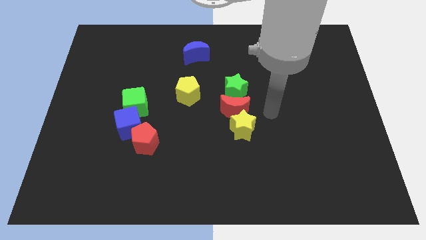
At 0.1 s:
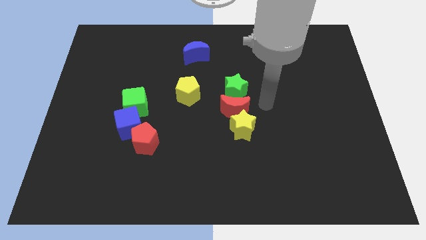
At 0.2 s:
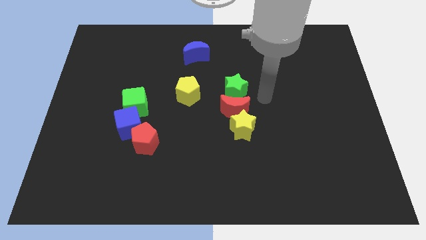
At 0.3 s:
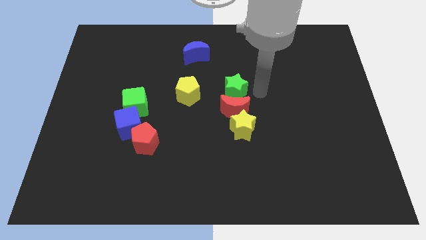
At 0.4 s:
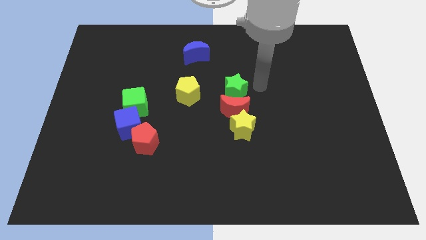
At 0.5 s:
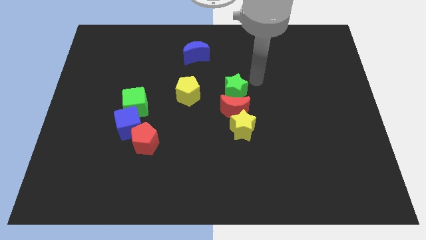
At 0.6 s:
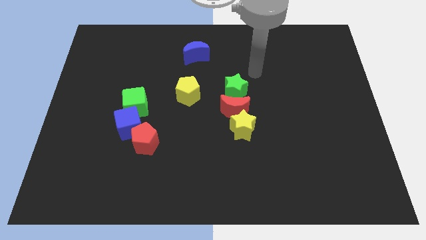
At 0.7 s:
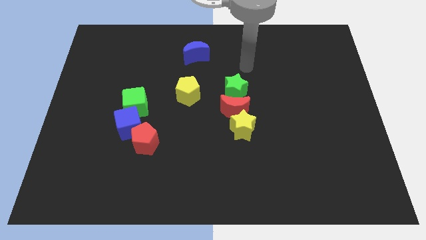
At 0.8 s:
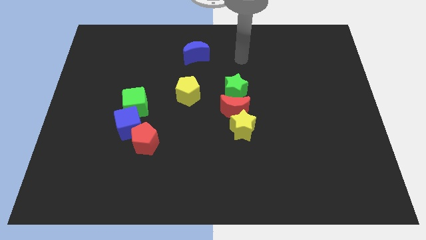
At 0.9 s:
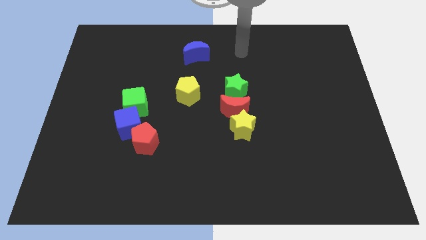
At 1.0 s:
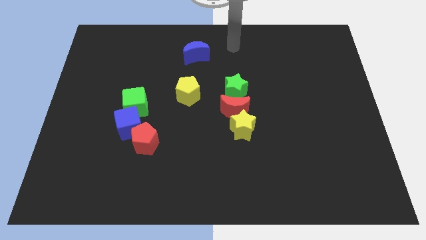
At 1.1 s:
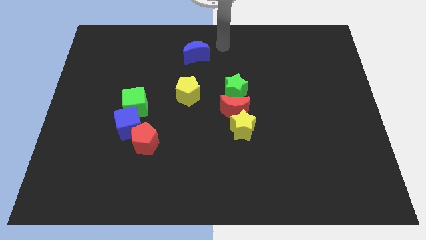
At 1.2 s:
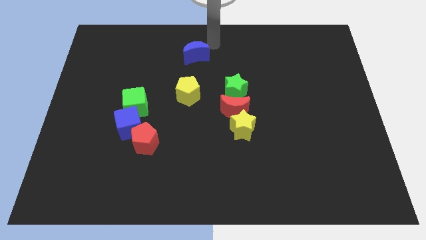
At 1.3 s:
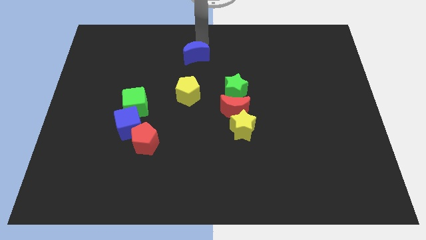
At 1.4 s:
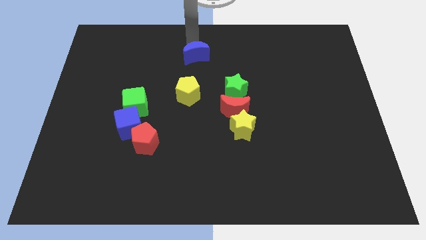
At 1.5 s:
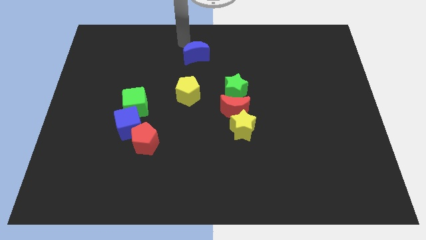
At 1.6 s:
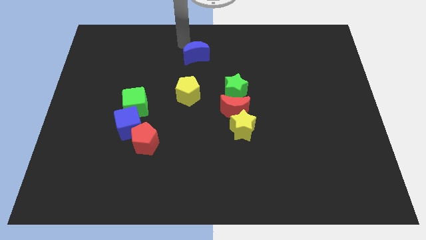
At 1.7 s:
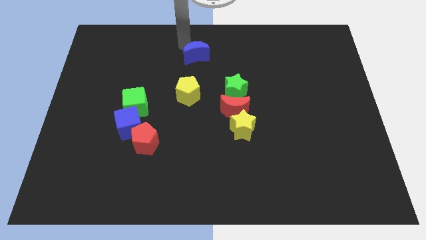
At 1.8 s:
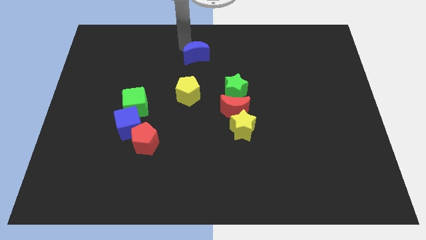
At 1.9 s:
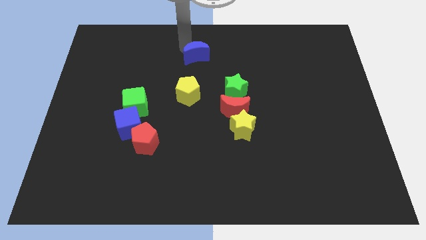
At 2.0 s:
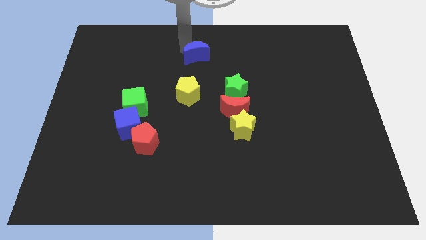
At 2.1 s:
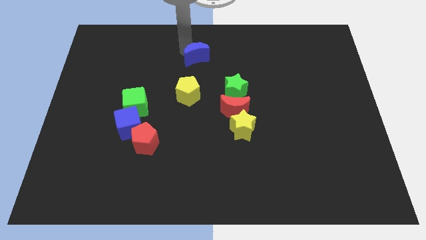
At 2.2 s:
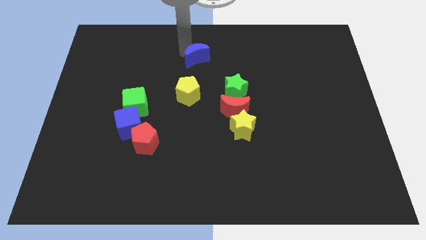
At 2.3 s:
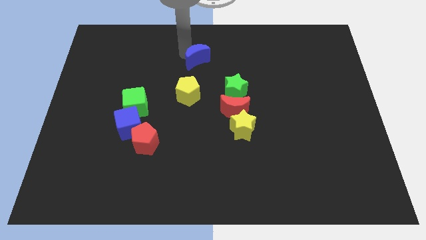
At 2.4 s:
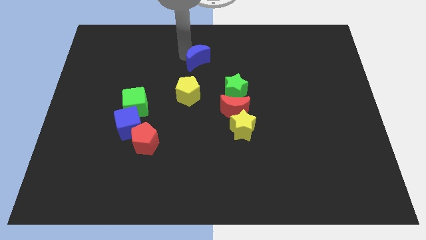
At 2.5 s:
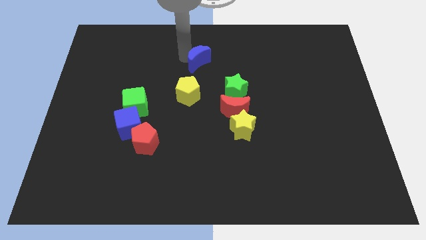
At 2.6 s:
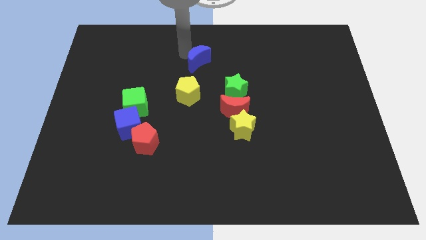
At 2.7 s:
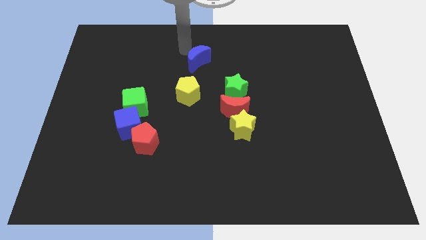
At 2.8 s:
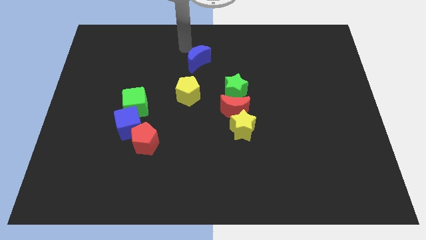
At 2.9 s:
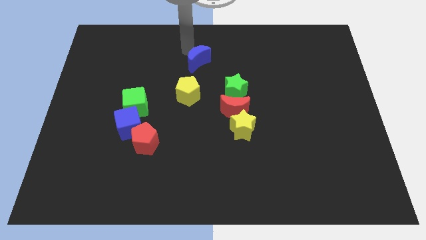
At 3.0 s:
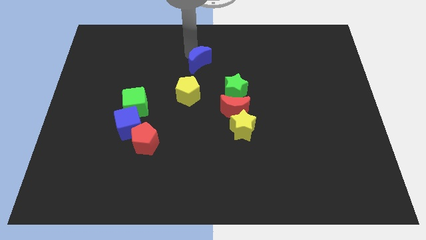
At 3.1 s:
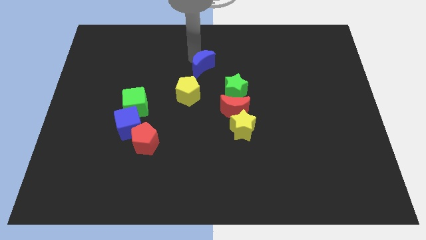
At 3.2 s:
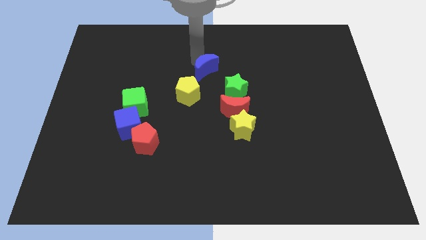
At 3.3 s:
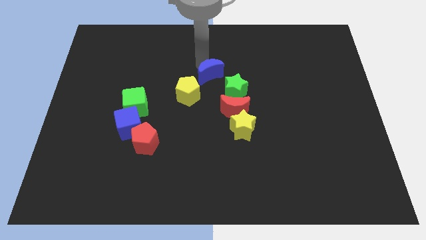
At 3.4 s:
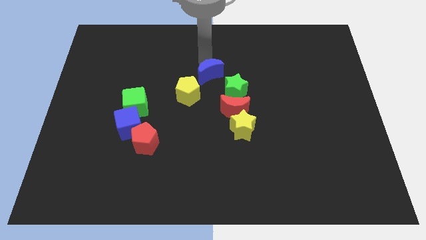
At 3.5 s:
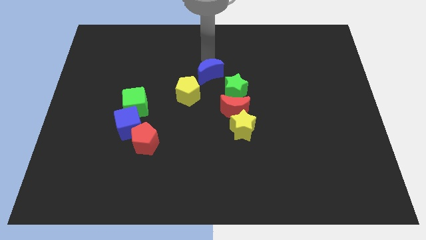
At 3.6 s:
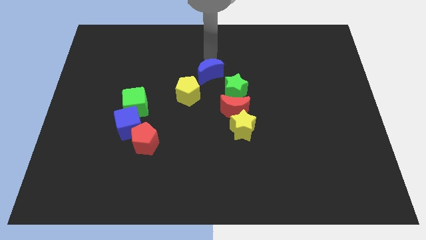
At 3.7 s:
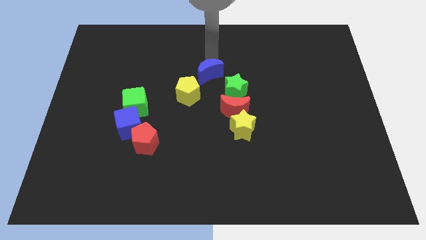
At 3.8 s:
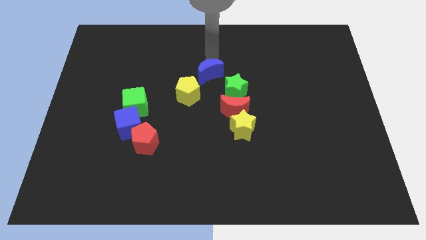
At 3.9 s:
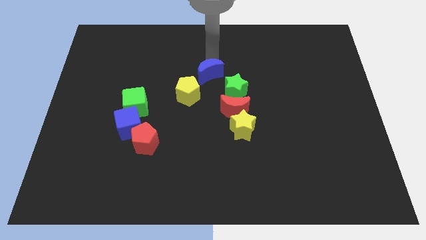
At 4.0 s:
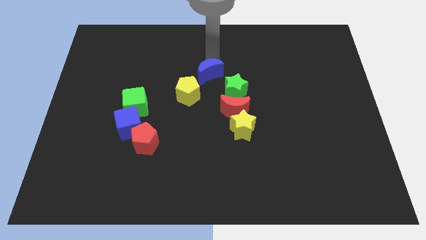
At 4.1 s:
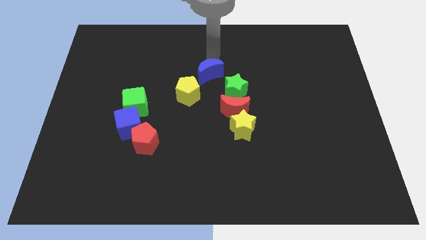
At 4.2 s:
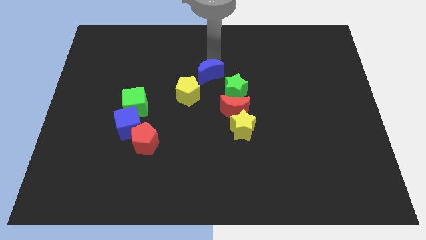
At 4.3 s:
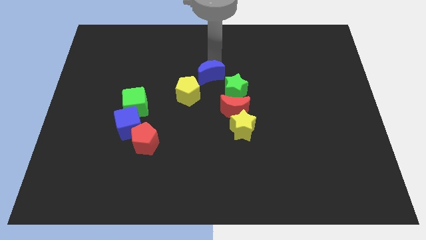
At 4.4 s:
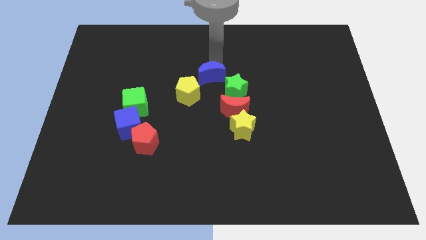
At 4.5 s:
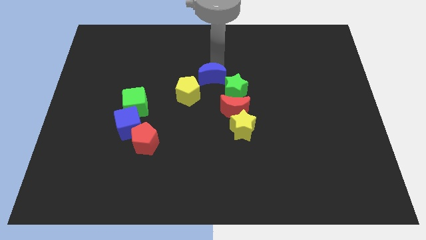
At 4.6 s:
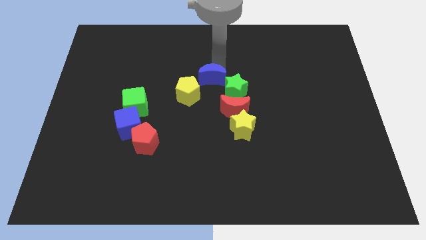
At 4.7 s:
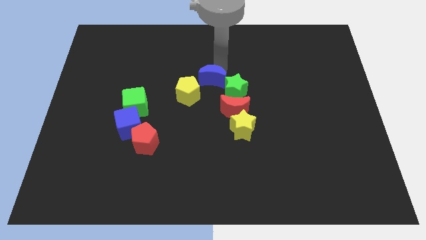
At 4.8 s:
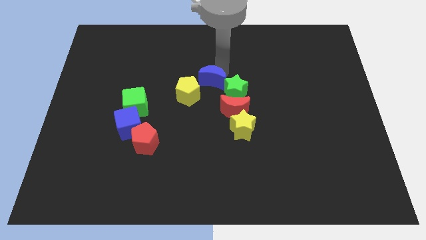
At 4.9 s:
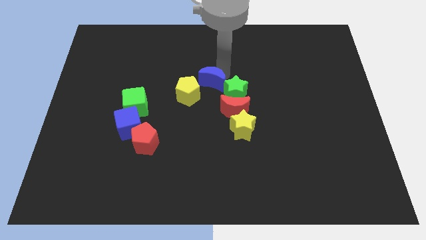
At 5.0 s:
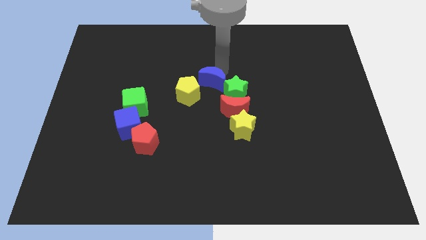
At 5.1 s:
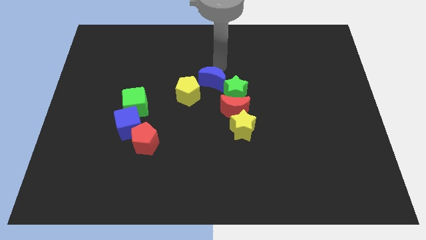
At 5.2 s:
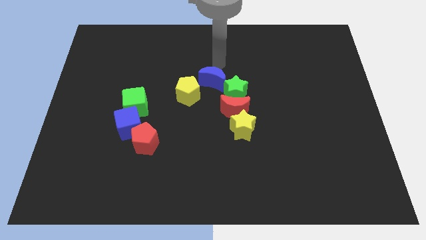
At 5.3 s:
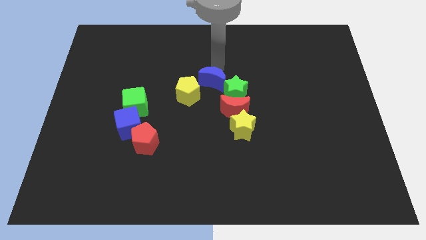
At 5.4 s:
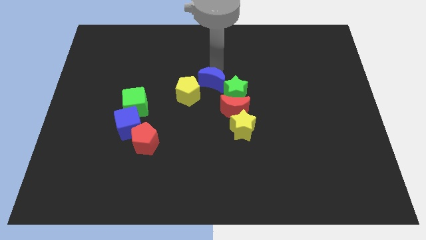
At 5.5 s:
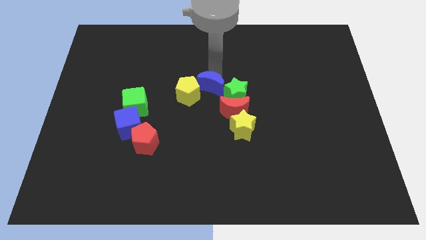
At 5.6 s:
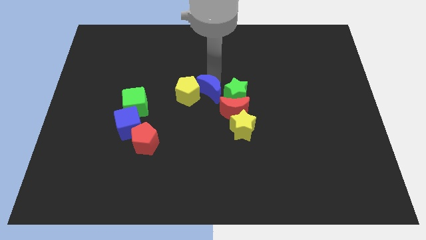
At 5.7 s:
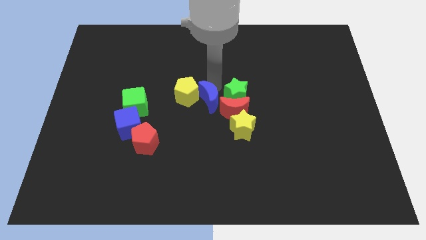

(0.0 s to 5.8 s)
slide the blue moon to the left of the red moon

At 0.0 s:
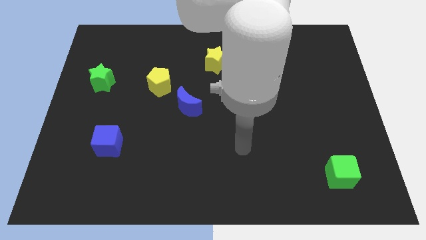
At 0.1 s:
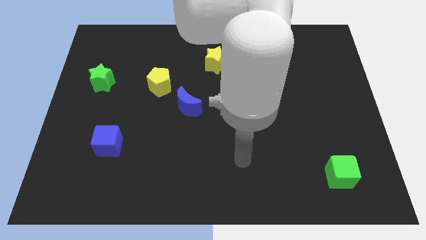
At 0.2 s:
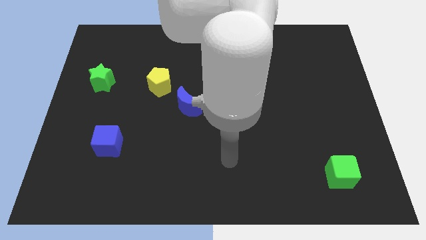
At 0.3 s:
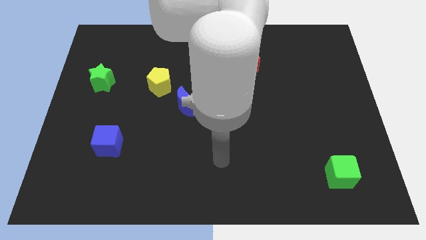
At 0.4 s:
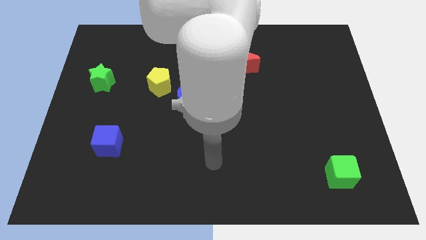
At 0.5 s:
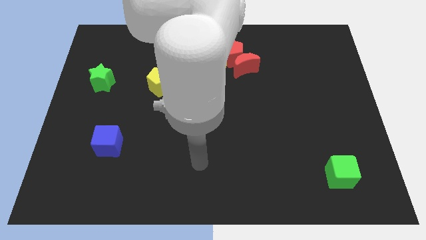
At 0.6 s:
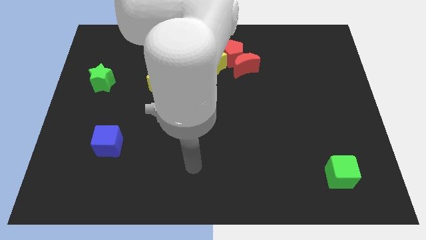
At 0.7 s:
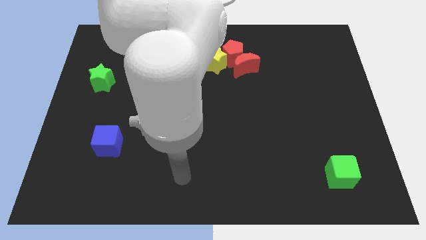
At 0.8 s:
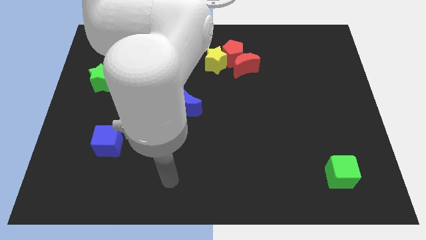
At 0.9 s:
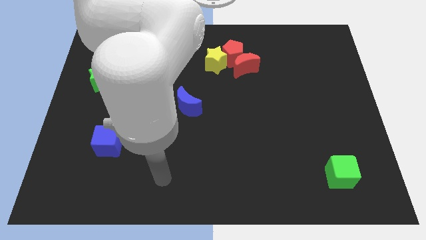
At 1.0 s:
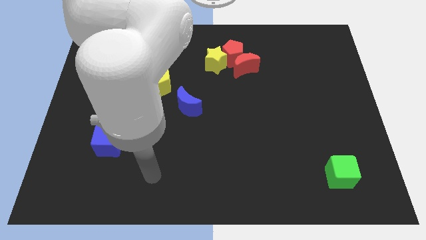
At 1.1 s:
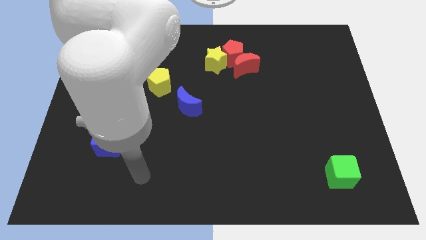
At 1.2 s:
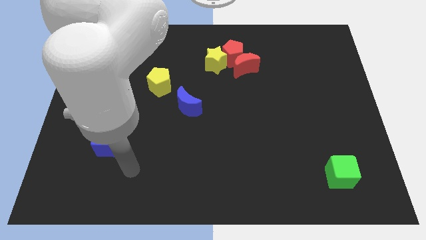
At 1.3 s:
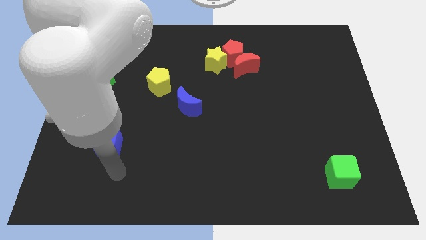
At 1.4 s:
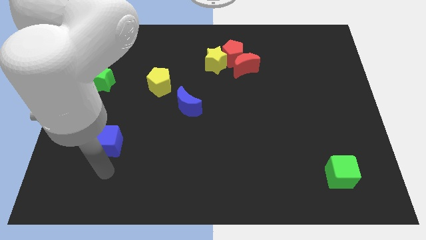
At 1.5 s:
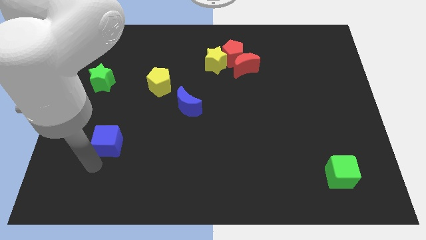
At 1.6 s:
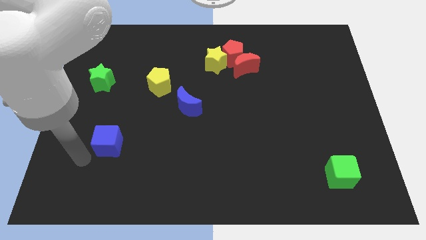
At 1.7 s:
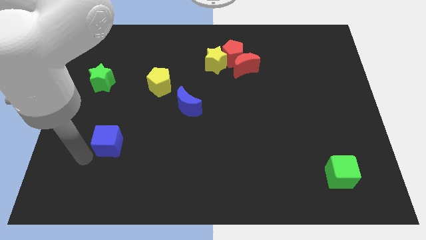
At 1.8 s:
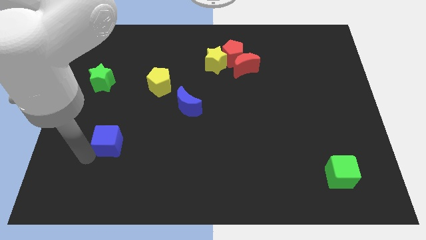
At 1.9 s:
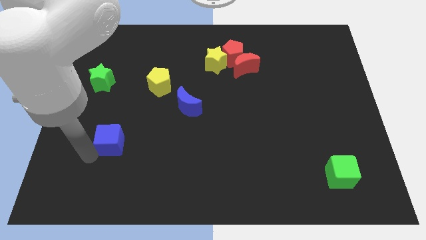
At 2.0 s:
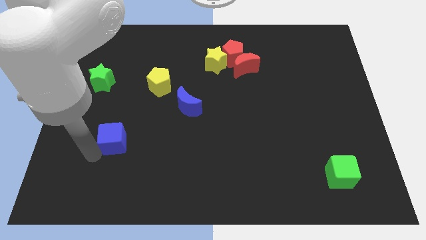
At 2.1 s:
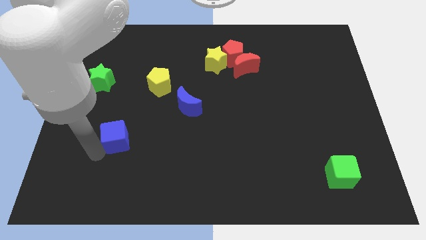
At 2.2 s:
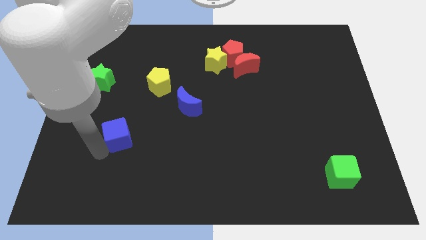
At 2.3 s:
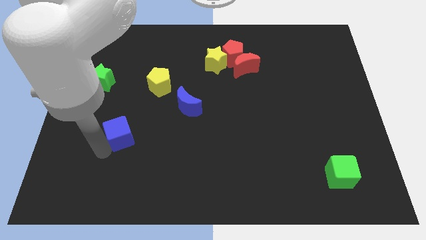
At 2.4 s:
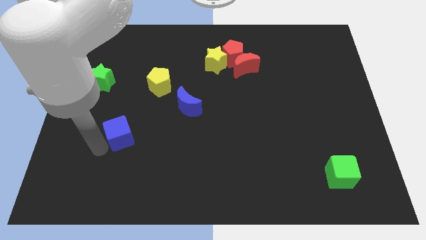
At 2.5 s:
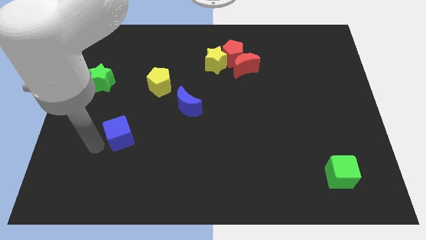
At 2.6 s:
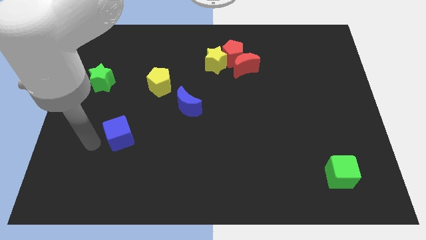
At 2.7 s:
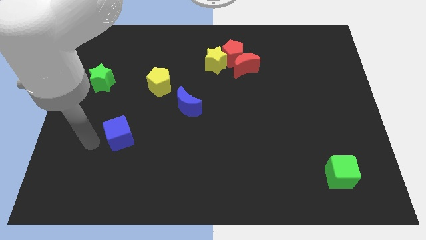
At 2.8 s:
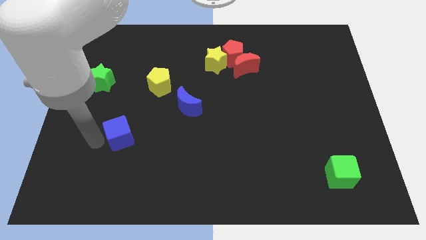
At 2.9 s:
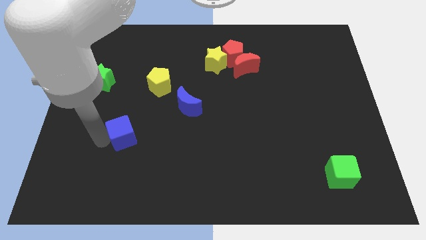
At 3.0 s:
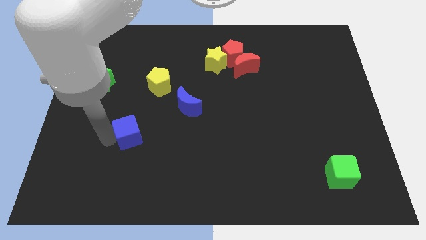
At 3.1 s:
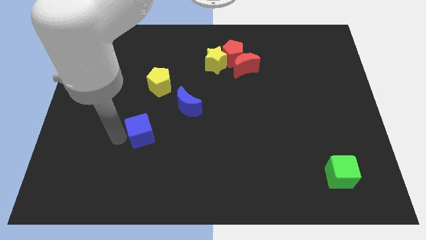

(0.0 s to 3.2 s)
push the blue cube to the bottom left of the blue moon
